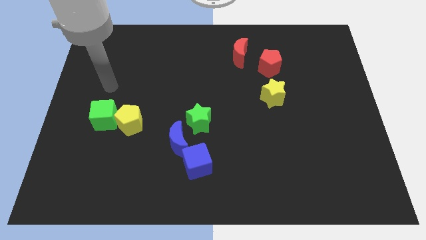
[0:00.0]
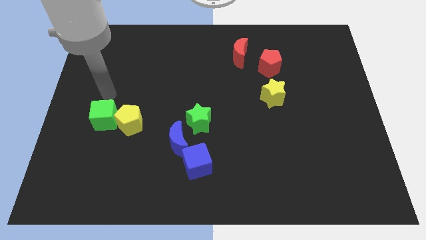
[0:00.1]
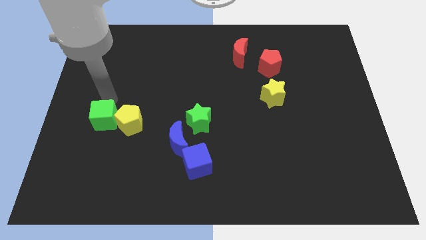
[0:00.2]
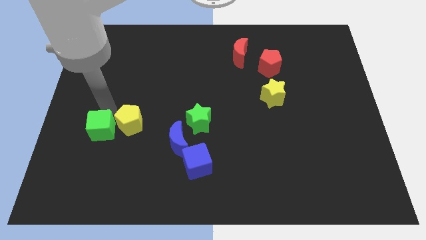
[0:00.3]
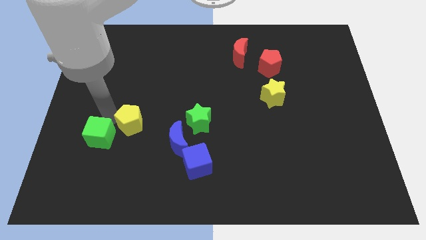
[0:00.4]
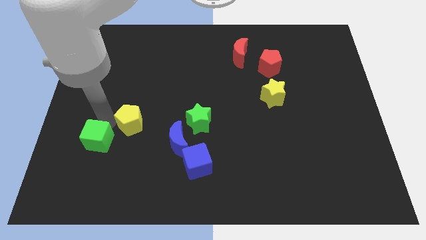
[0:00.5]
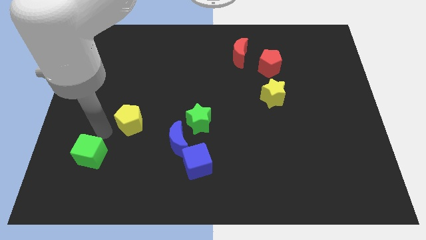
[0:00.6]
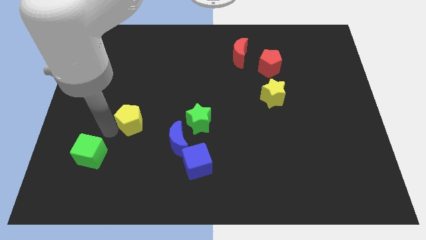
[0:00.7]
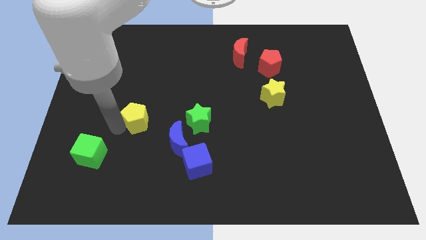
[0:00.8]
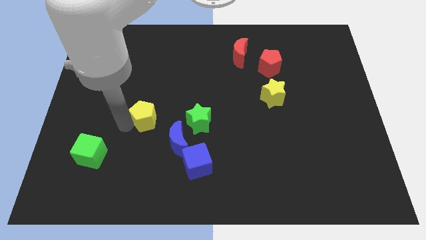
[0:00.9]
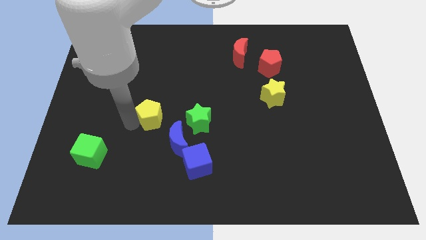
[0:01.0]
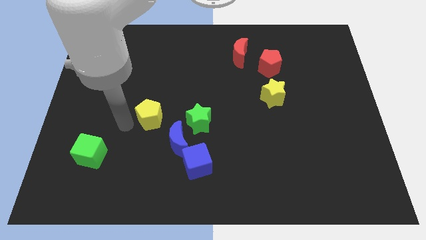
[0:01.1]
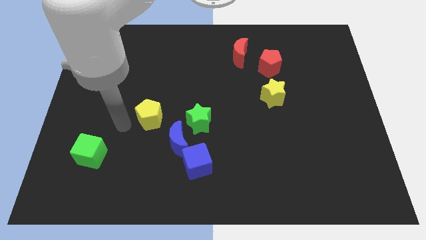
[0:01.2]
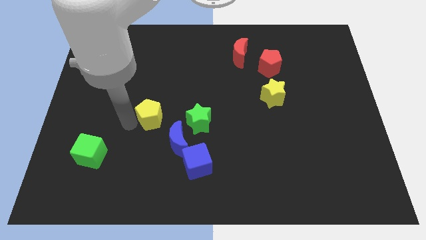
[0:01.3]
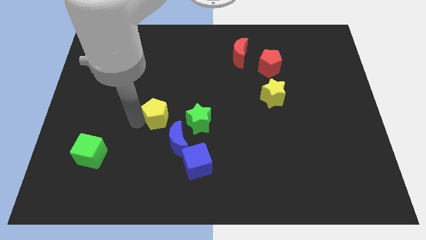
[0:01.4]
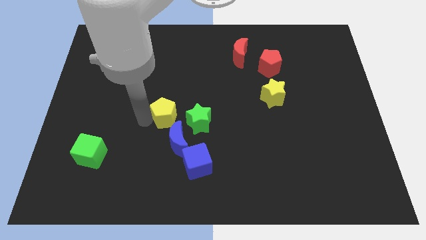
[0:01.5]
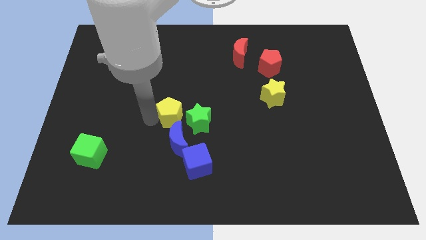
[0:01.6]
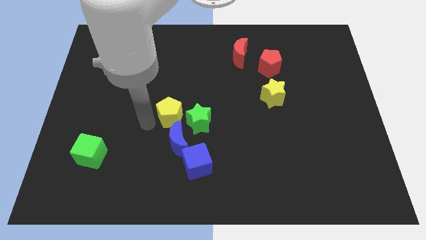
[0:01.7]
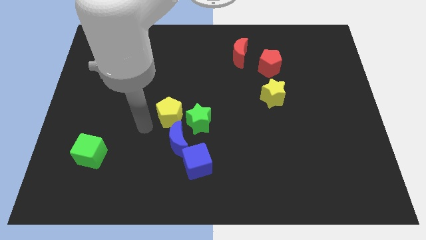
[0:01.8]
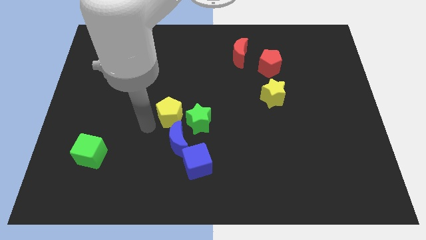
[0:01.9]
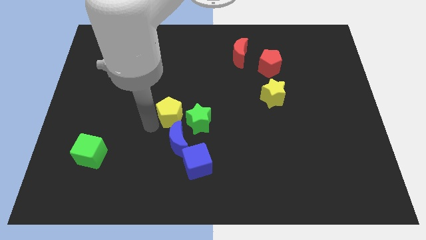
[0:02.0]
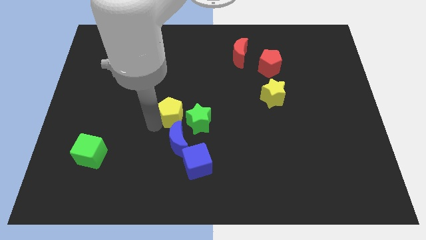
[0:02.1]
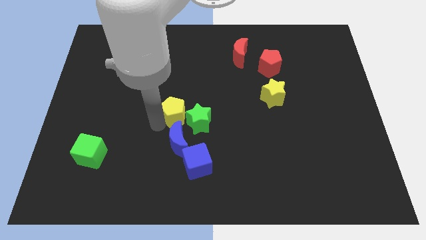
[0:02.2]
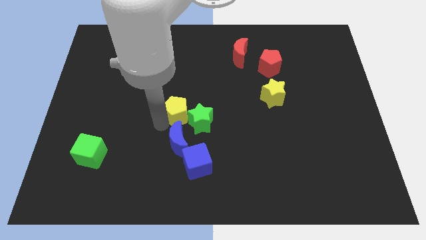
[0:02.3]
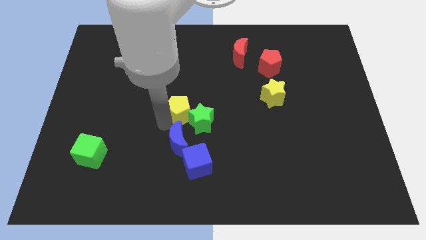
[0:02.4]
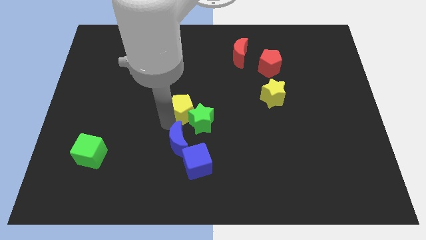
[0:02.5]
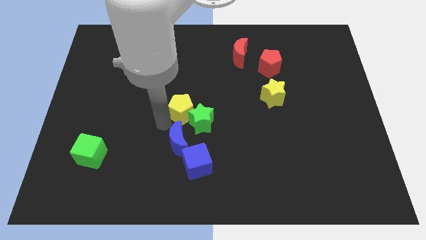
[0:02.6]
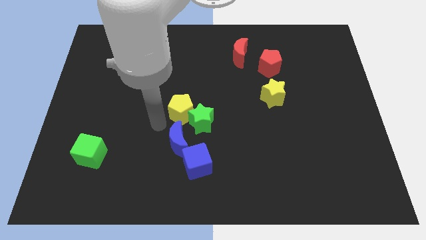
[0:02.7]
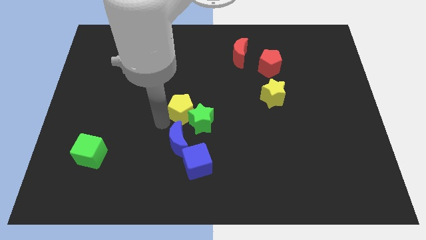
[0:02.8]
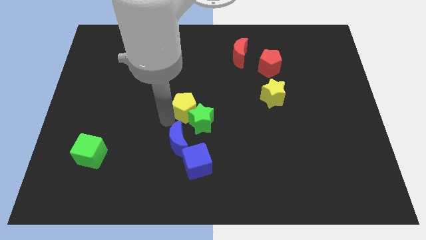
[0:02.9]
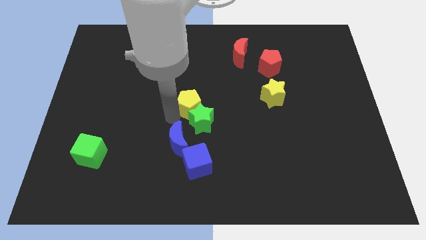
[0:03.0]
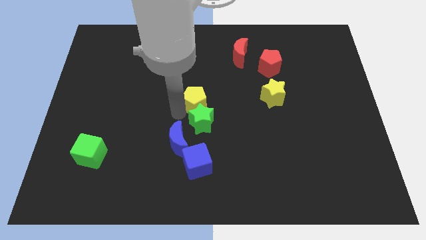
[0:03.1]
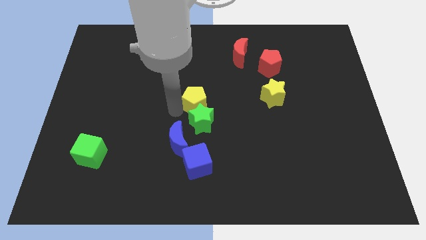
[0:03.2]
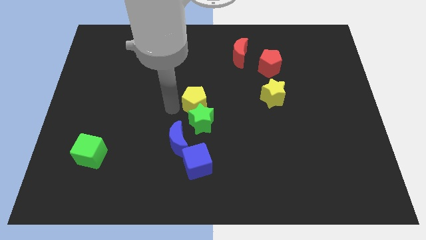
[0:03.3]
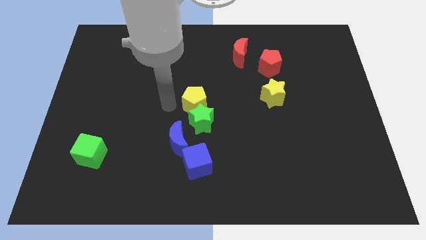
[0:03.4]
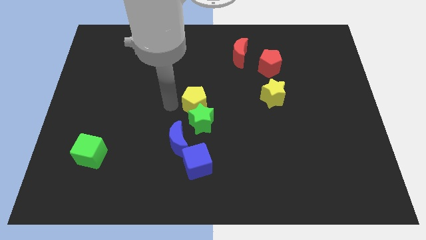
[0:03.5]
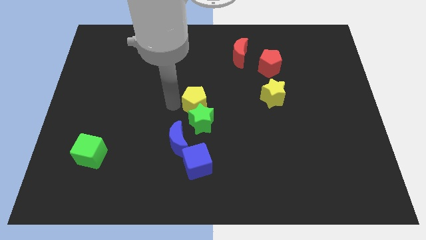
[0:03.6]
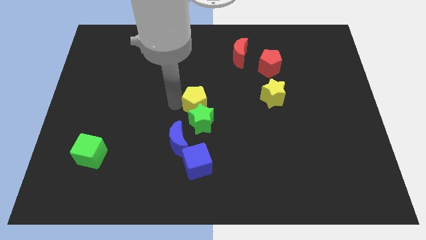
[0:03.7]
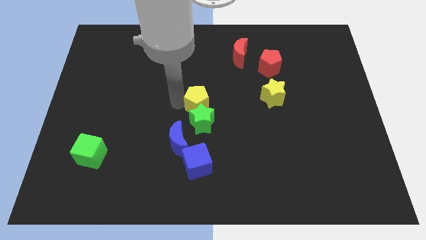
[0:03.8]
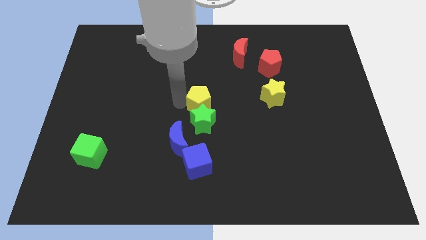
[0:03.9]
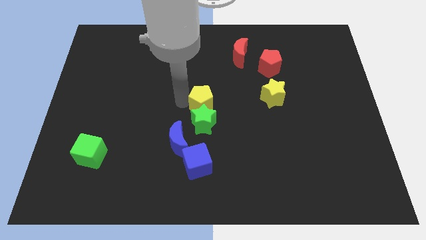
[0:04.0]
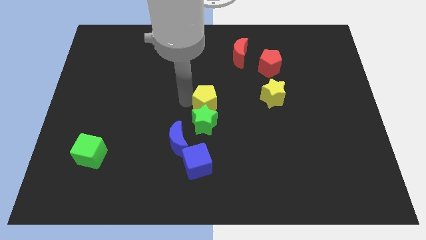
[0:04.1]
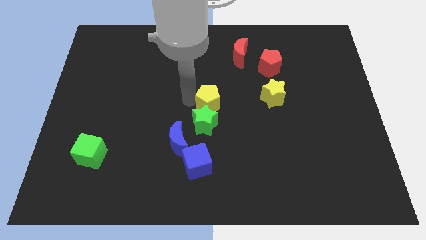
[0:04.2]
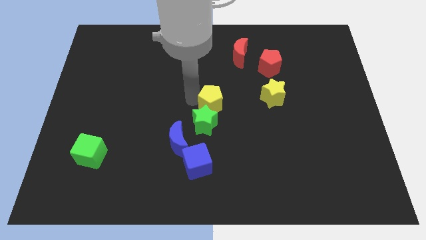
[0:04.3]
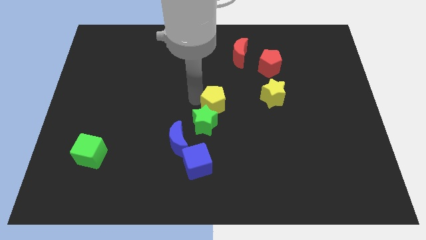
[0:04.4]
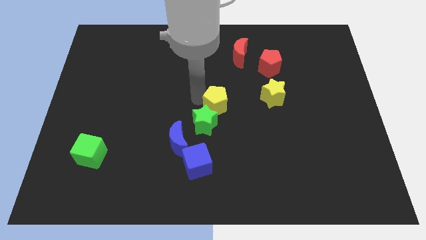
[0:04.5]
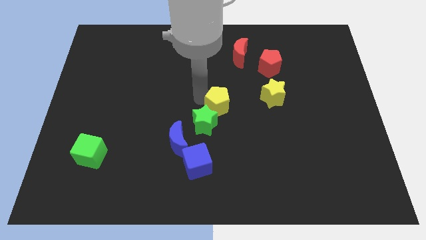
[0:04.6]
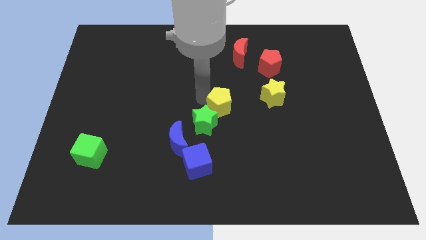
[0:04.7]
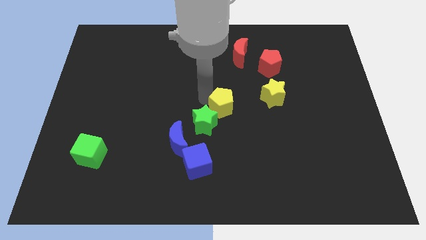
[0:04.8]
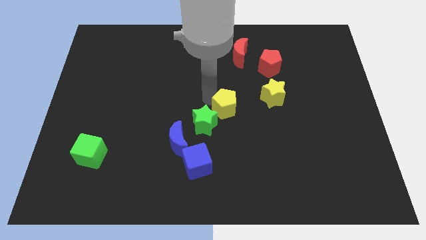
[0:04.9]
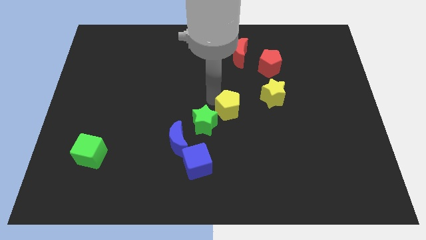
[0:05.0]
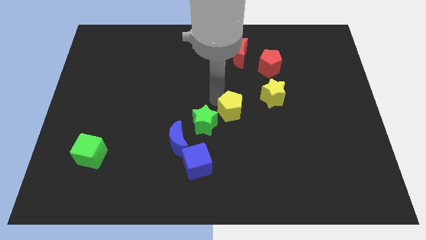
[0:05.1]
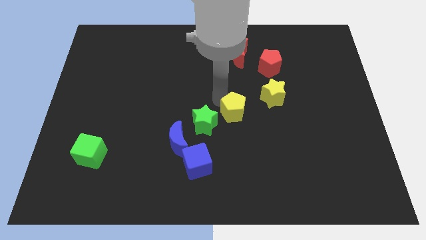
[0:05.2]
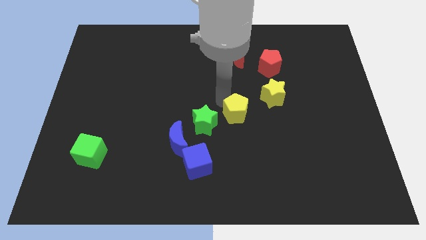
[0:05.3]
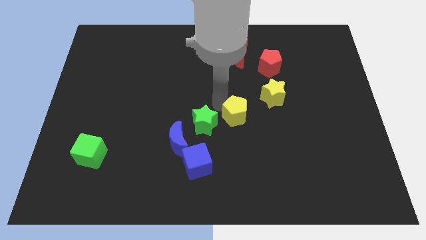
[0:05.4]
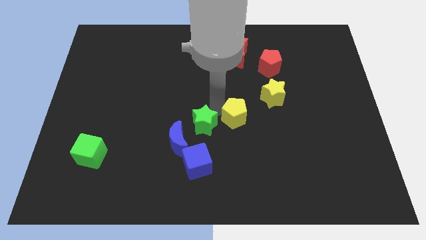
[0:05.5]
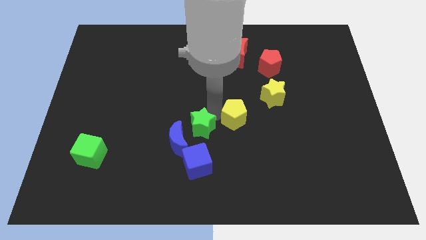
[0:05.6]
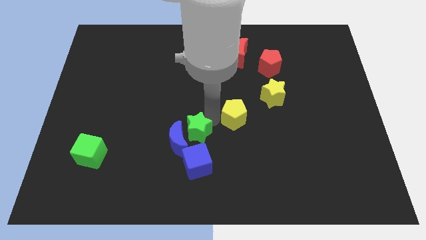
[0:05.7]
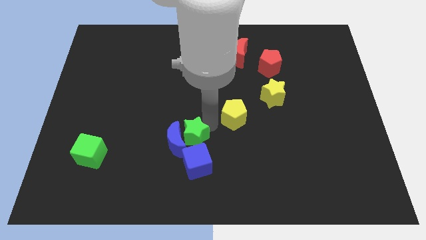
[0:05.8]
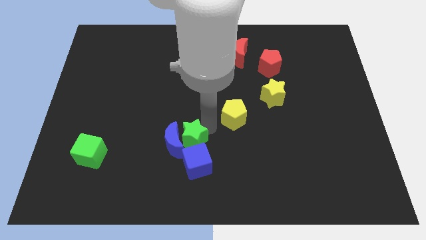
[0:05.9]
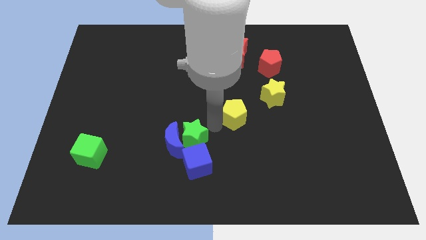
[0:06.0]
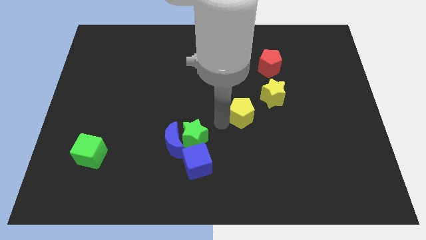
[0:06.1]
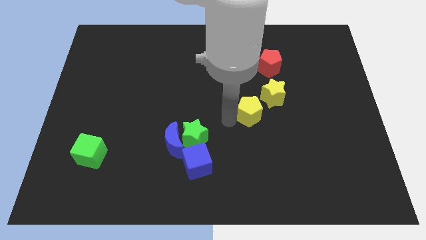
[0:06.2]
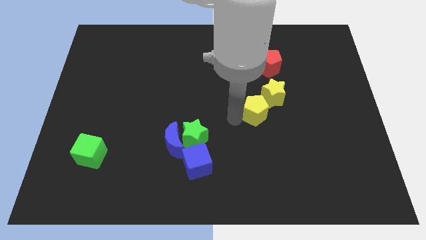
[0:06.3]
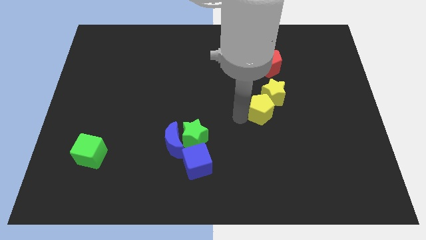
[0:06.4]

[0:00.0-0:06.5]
put the yellow pentagon below the red pentagon

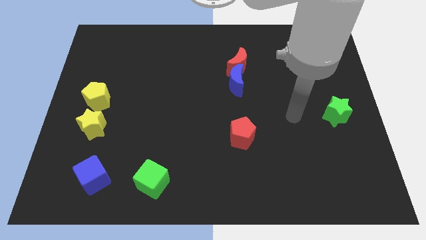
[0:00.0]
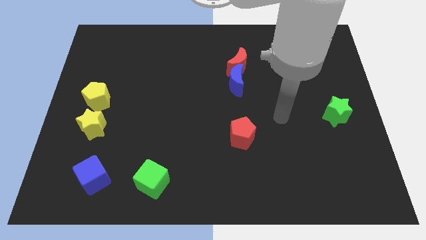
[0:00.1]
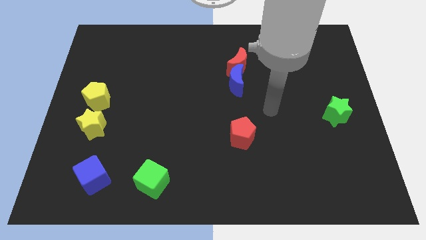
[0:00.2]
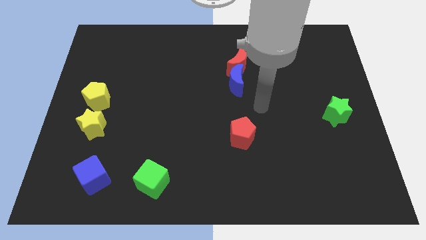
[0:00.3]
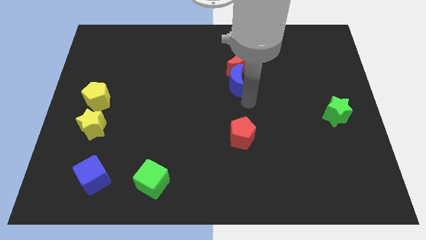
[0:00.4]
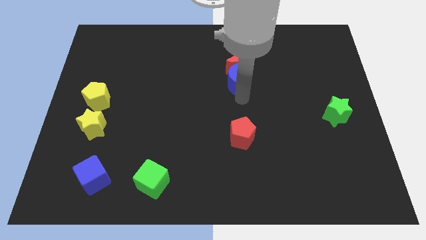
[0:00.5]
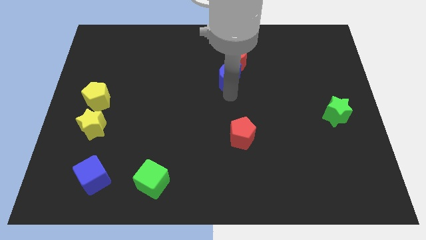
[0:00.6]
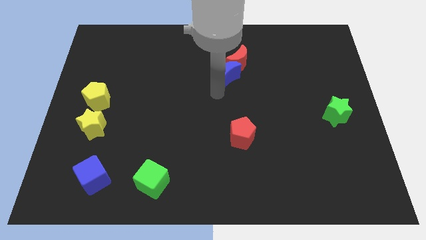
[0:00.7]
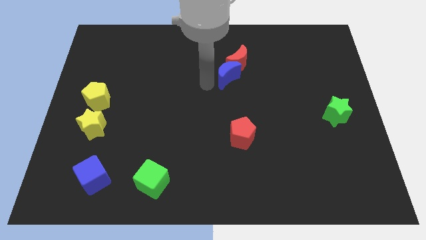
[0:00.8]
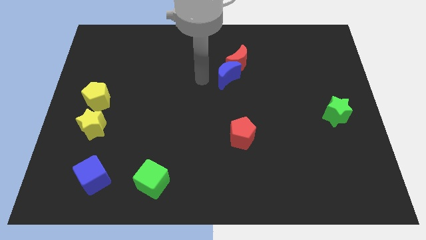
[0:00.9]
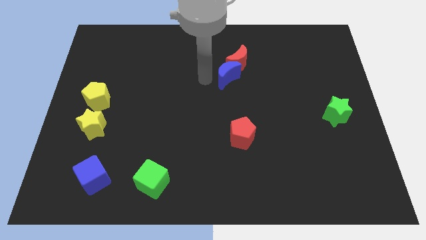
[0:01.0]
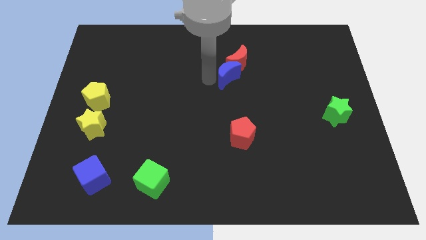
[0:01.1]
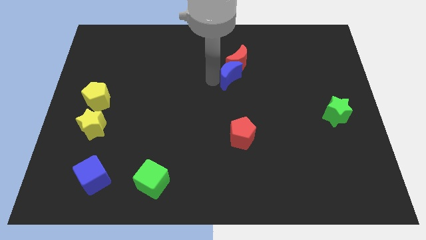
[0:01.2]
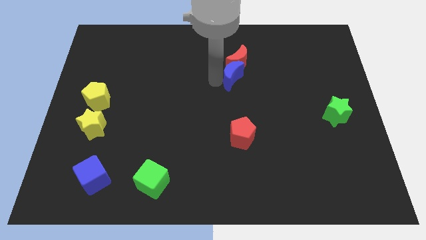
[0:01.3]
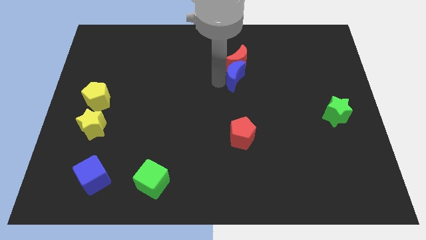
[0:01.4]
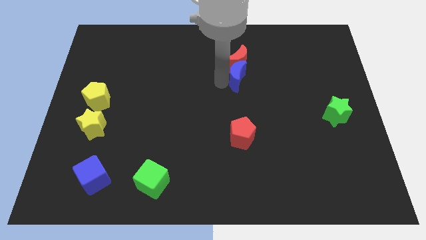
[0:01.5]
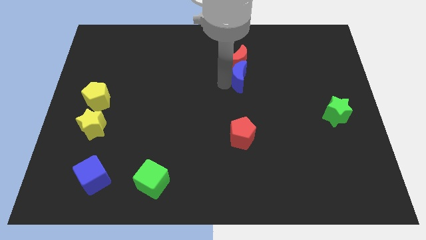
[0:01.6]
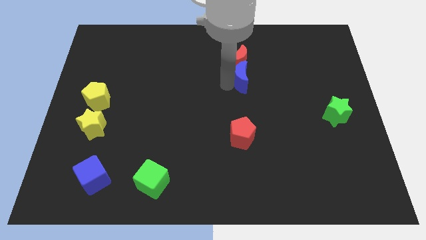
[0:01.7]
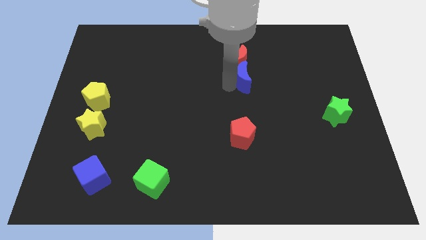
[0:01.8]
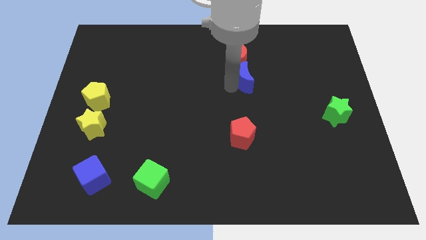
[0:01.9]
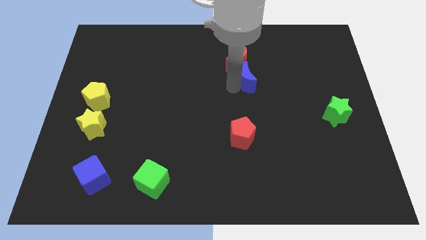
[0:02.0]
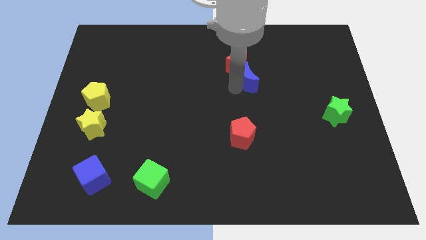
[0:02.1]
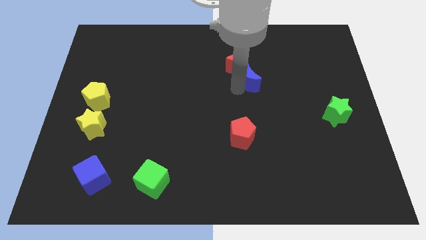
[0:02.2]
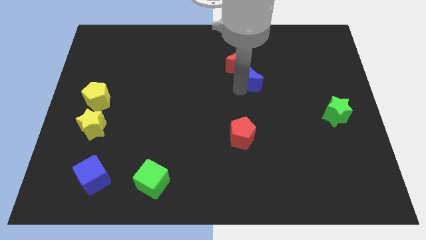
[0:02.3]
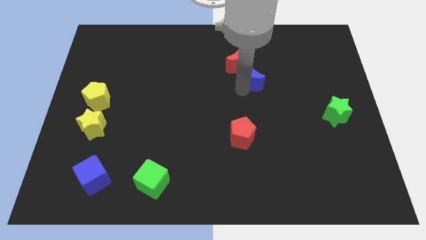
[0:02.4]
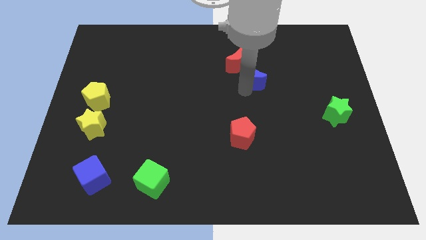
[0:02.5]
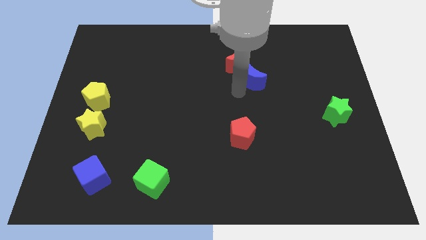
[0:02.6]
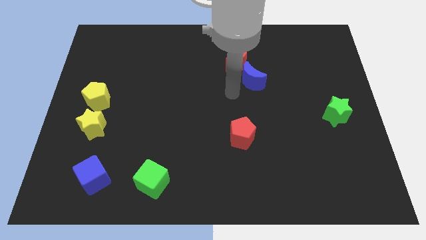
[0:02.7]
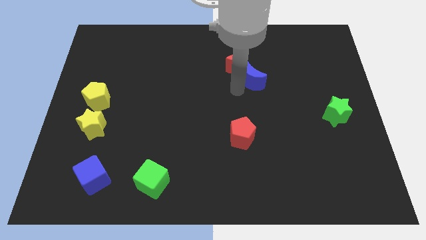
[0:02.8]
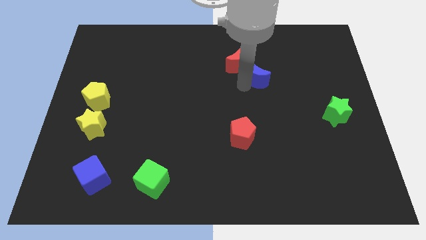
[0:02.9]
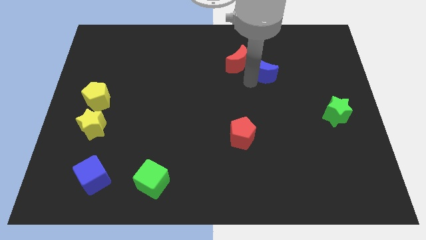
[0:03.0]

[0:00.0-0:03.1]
slide the blue moon to the right side of the red moon
